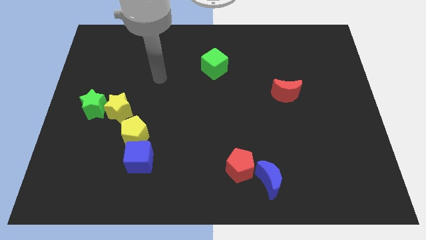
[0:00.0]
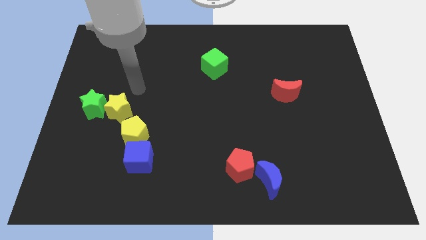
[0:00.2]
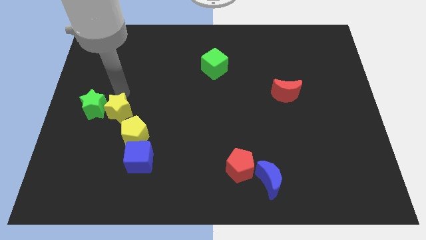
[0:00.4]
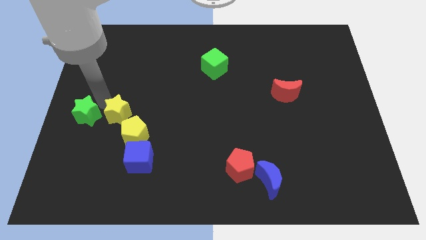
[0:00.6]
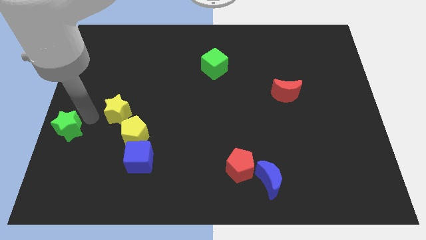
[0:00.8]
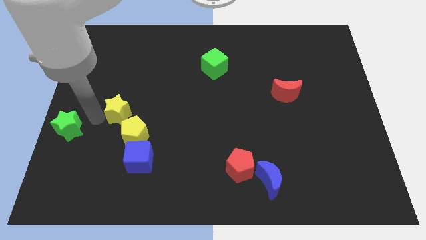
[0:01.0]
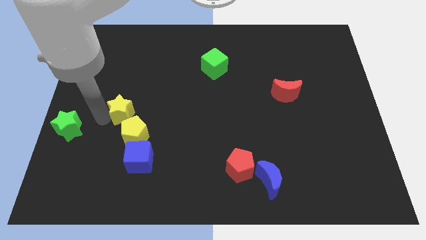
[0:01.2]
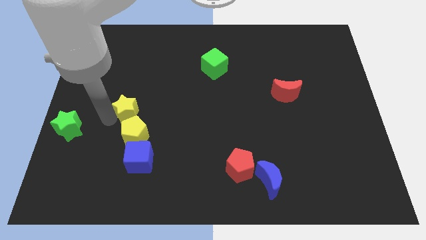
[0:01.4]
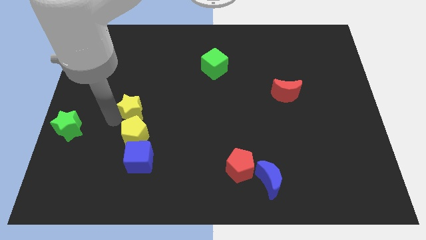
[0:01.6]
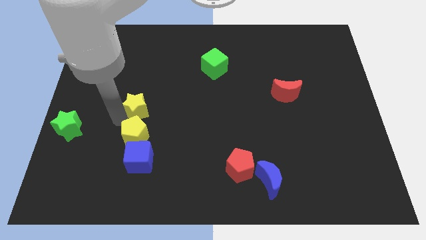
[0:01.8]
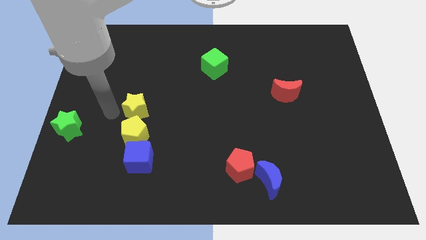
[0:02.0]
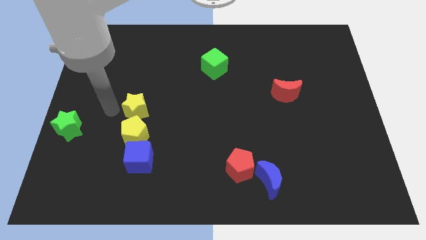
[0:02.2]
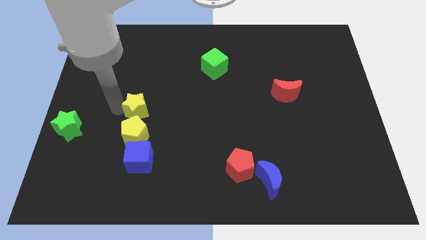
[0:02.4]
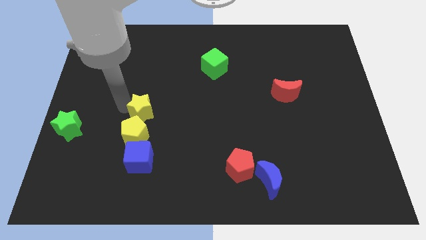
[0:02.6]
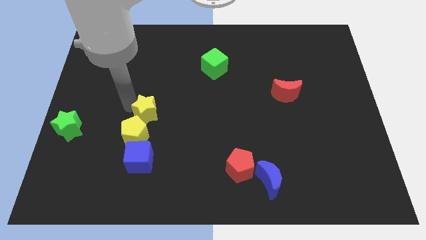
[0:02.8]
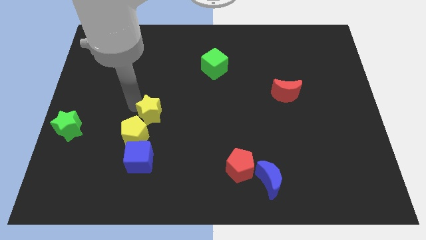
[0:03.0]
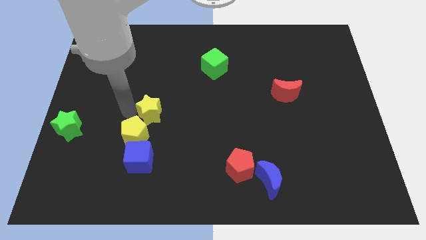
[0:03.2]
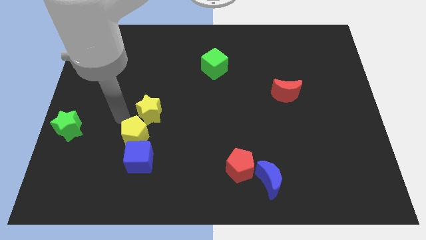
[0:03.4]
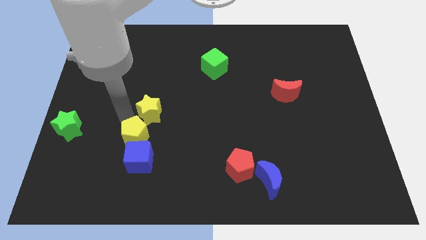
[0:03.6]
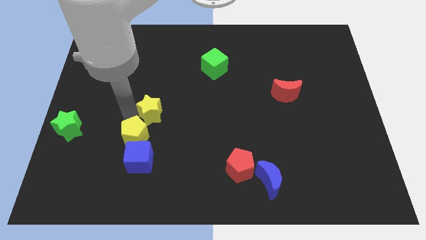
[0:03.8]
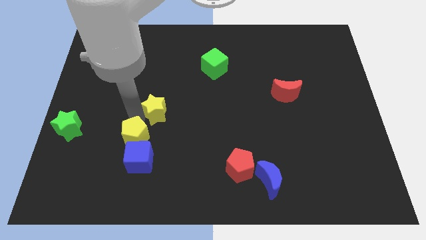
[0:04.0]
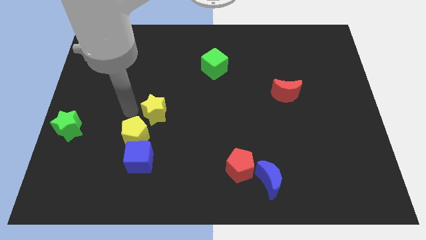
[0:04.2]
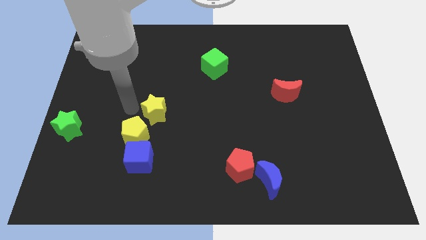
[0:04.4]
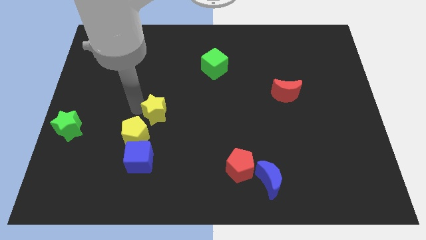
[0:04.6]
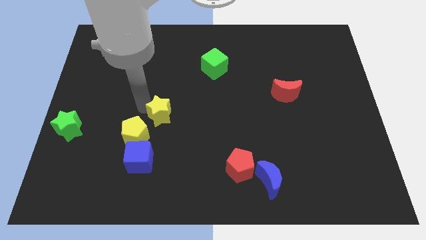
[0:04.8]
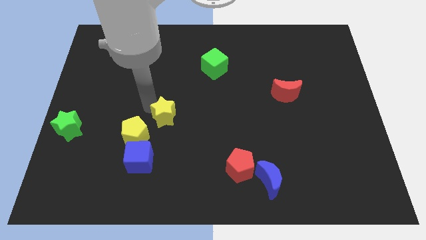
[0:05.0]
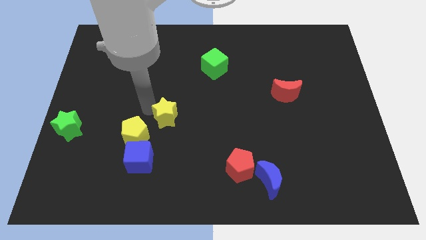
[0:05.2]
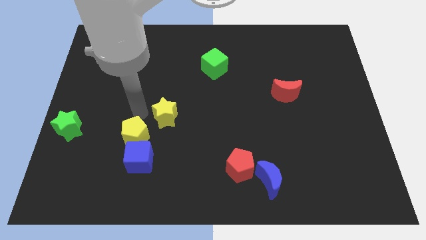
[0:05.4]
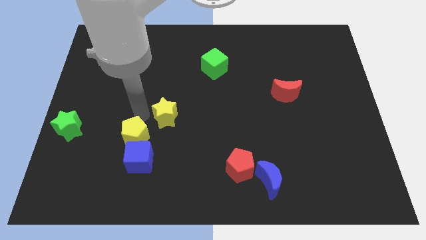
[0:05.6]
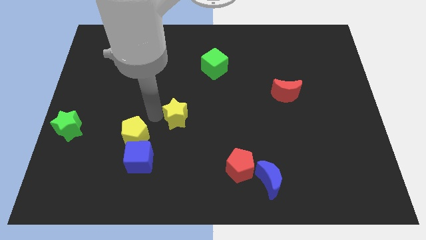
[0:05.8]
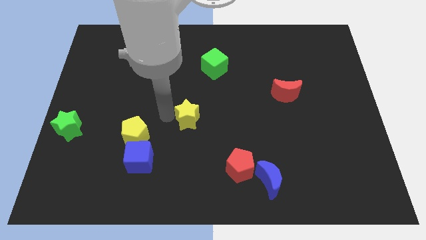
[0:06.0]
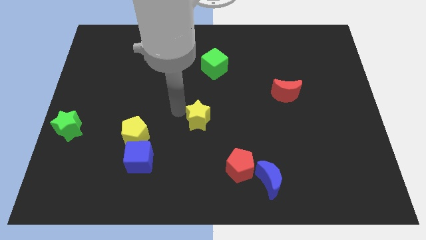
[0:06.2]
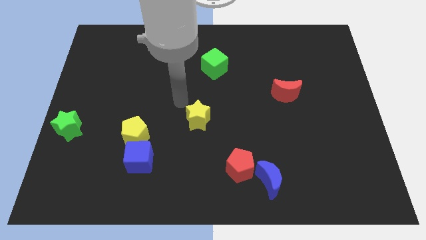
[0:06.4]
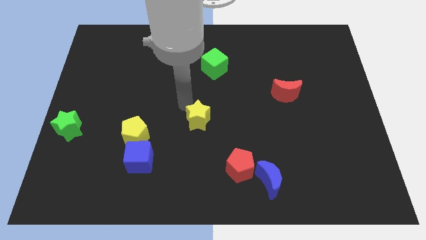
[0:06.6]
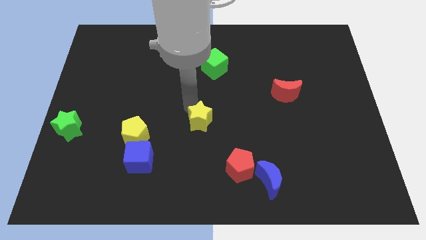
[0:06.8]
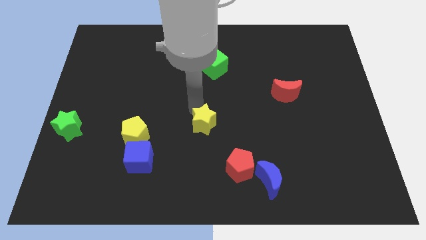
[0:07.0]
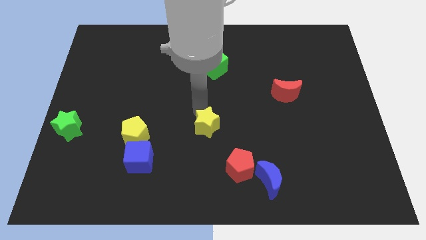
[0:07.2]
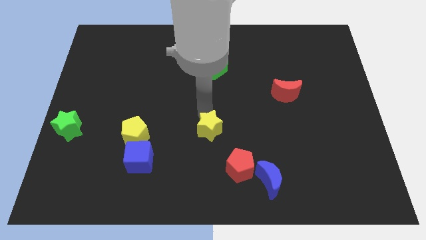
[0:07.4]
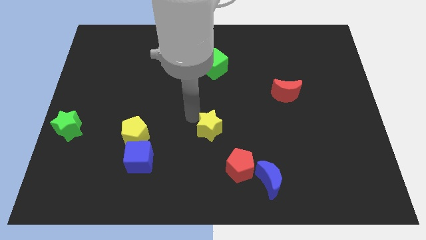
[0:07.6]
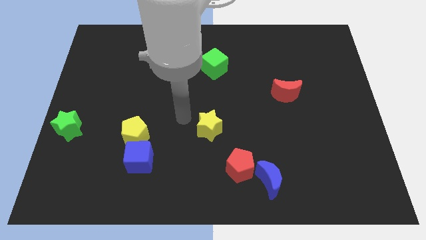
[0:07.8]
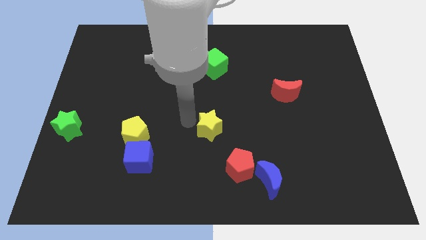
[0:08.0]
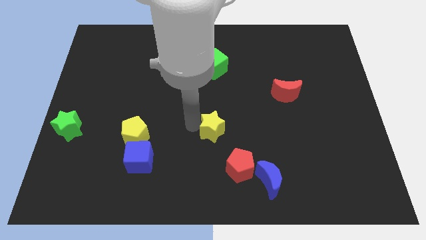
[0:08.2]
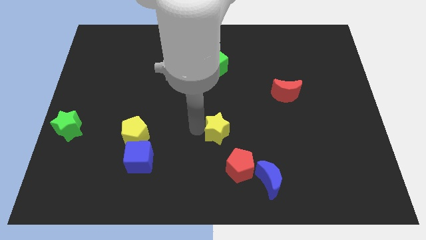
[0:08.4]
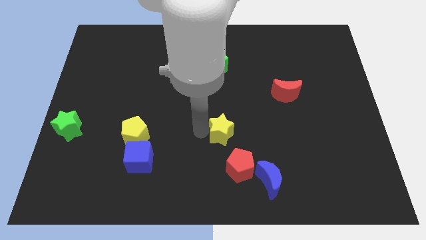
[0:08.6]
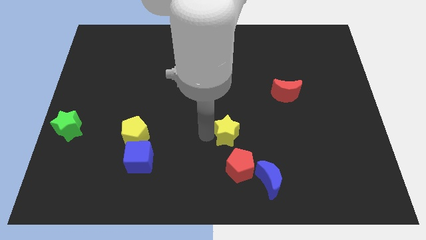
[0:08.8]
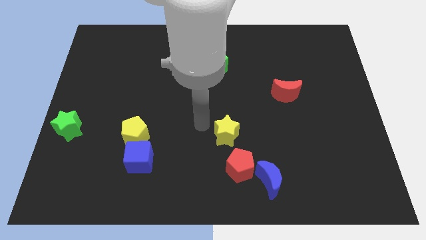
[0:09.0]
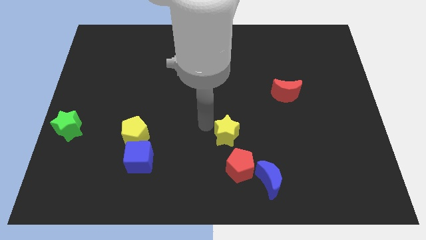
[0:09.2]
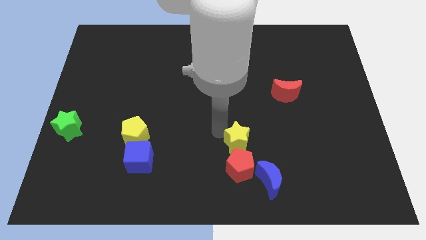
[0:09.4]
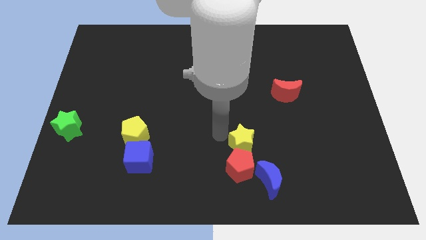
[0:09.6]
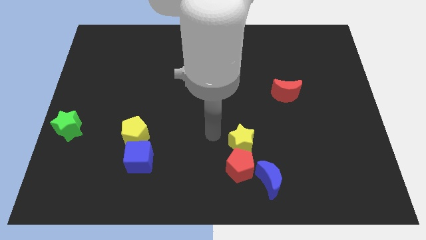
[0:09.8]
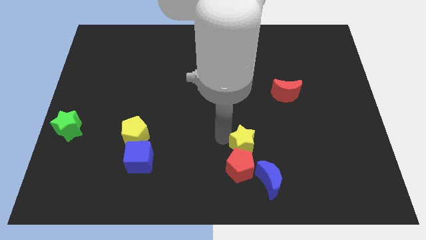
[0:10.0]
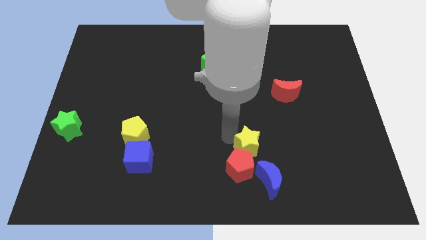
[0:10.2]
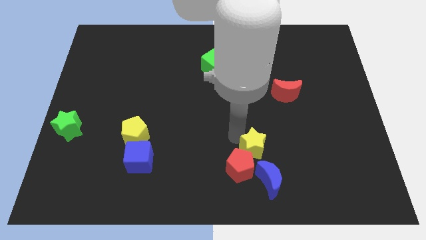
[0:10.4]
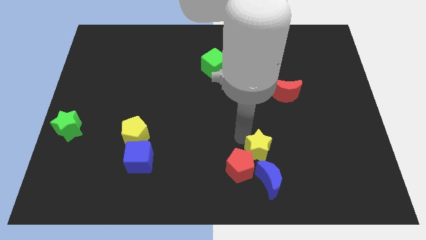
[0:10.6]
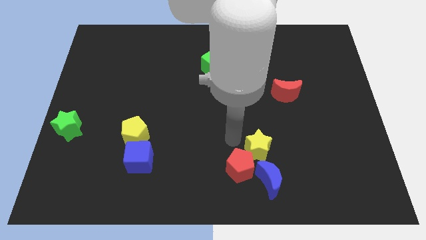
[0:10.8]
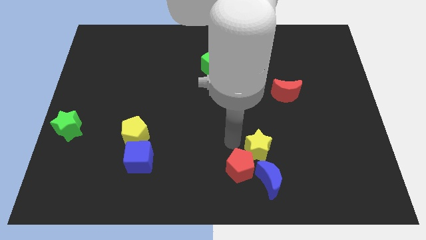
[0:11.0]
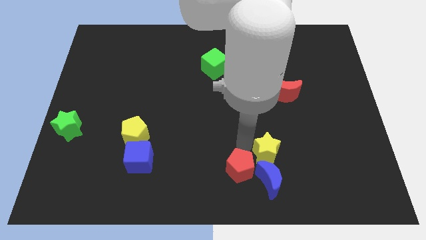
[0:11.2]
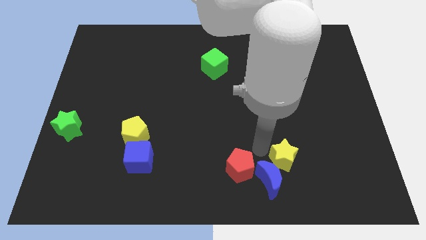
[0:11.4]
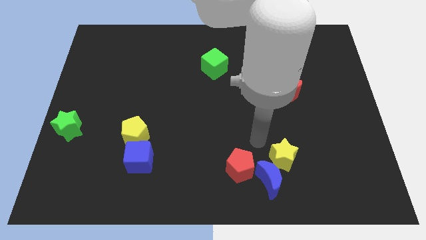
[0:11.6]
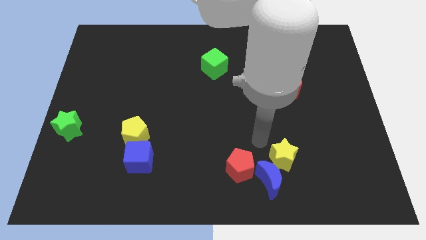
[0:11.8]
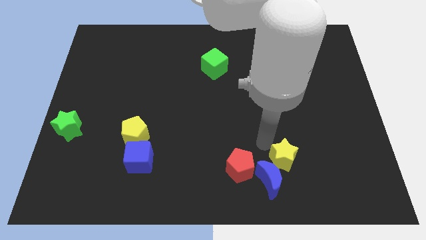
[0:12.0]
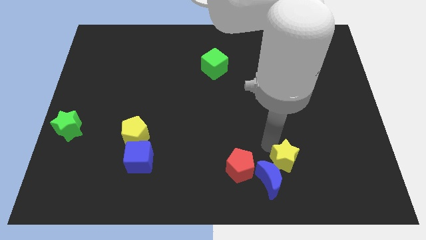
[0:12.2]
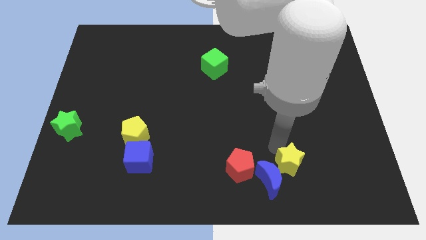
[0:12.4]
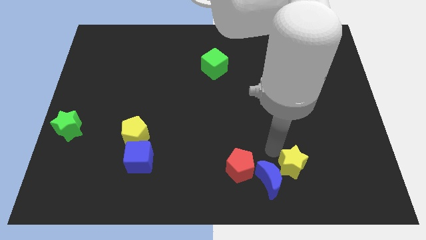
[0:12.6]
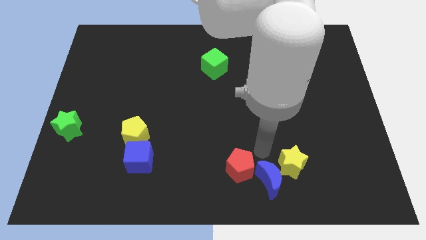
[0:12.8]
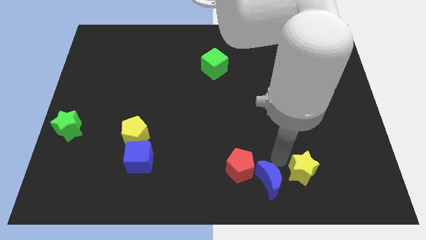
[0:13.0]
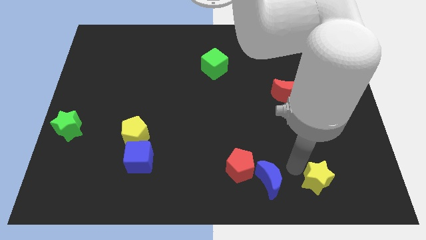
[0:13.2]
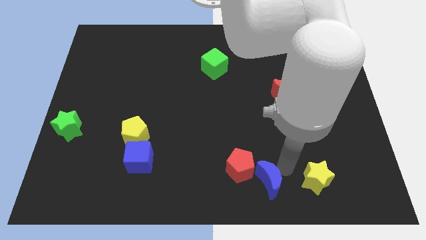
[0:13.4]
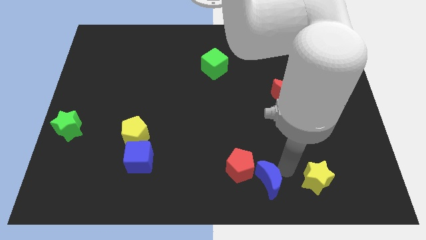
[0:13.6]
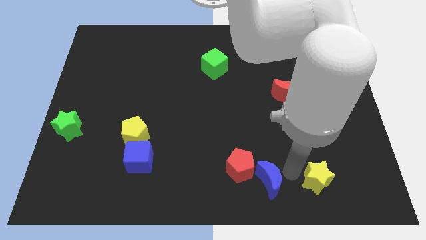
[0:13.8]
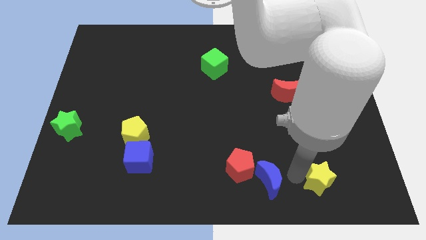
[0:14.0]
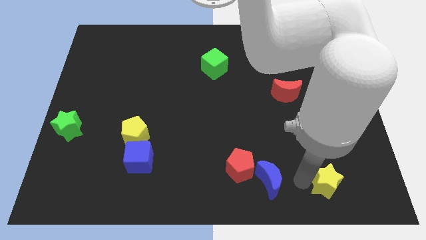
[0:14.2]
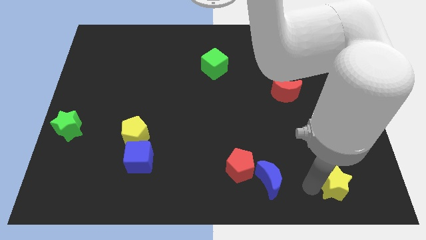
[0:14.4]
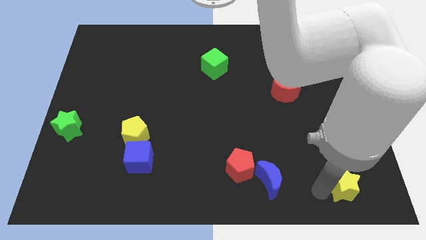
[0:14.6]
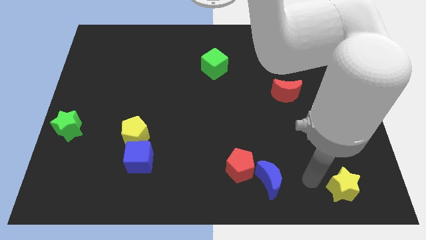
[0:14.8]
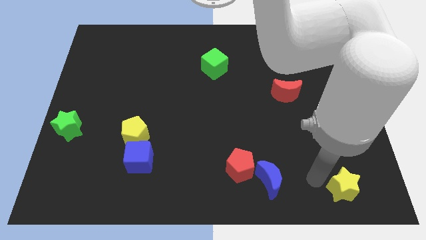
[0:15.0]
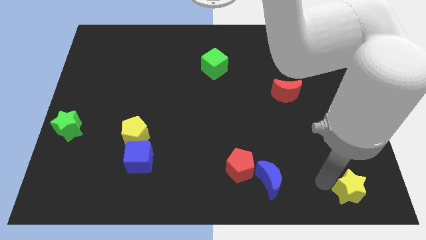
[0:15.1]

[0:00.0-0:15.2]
put the yellow star to the bottom right
